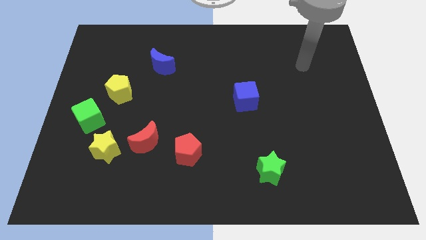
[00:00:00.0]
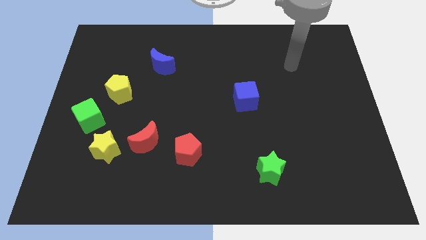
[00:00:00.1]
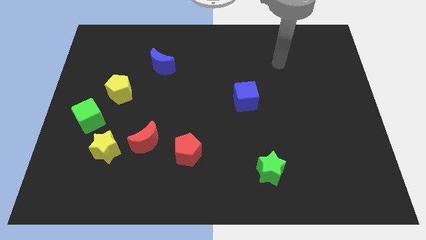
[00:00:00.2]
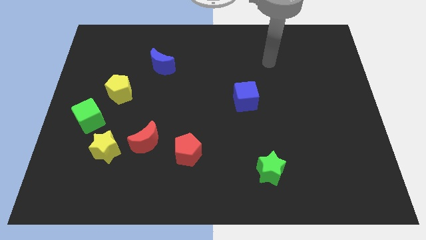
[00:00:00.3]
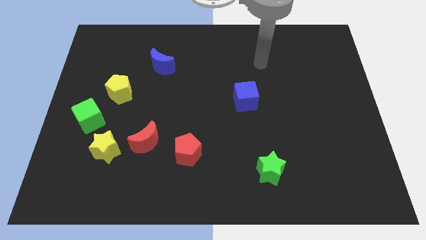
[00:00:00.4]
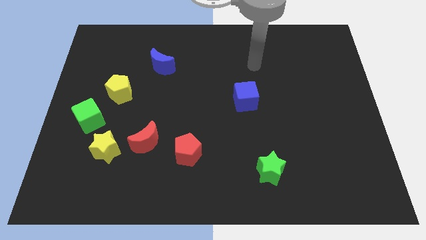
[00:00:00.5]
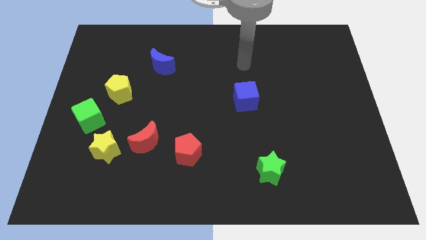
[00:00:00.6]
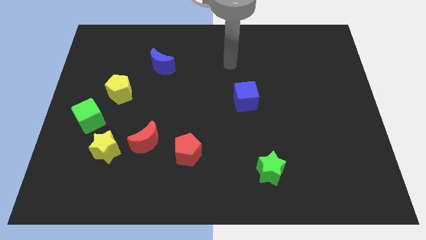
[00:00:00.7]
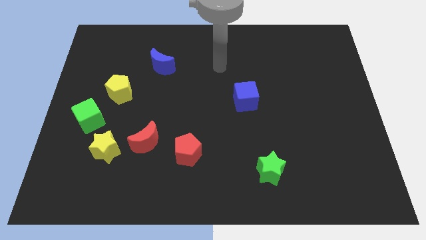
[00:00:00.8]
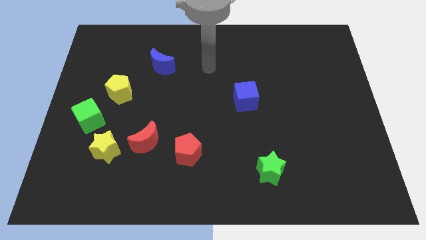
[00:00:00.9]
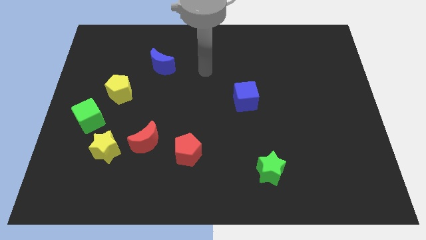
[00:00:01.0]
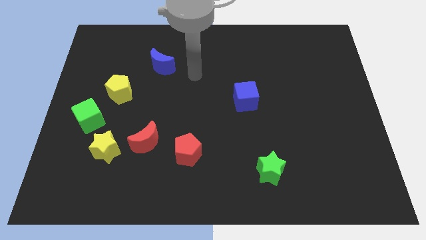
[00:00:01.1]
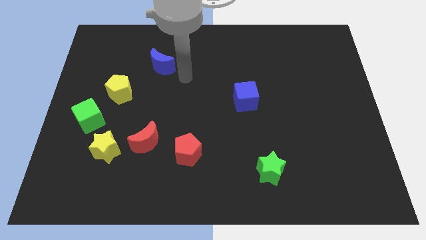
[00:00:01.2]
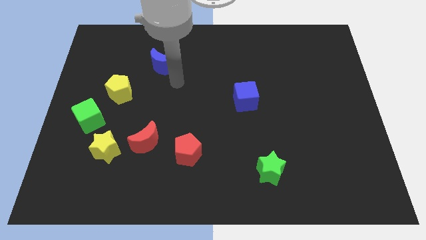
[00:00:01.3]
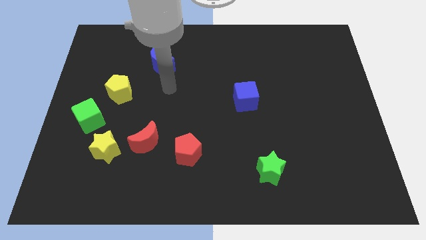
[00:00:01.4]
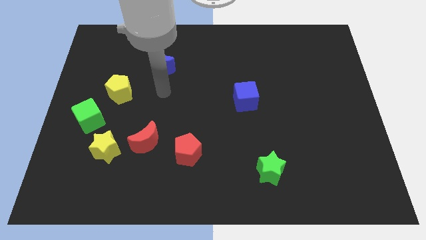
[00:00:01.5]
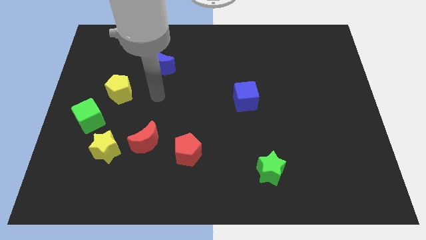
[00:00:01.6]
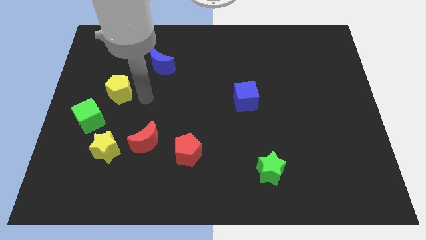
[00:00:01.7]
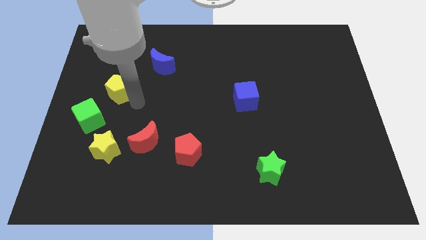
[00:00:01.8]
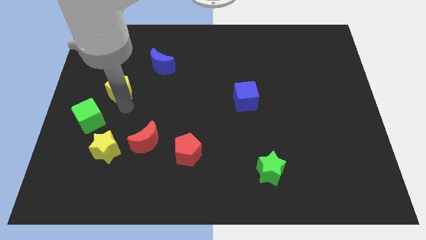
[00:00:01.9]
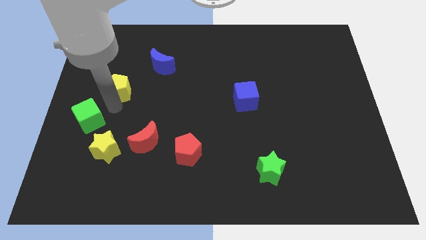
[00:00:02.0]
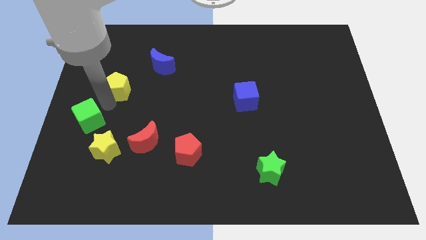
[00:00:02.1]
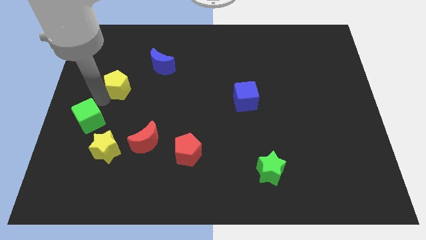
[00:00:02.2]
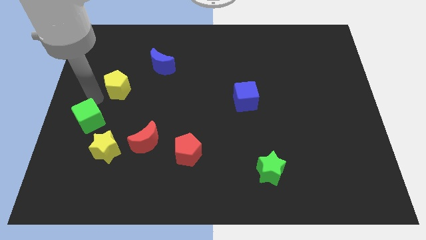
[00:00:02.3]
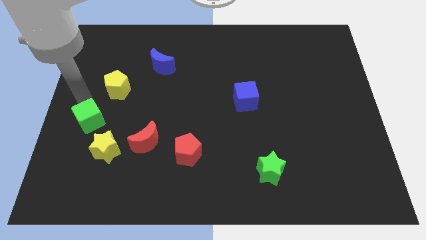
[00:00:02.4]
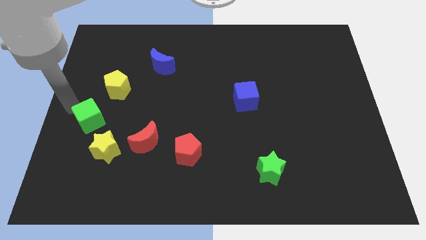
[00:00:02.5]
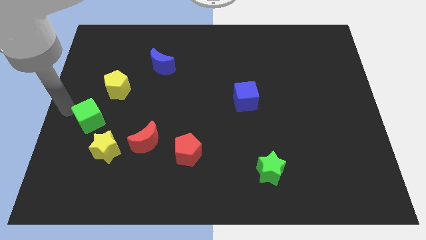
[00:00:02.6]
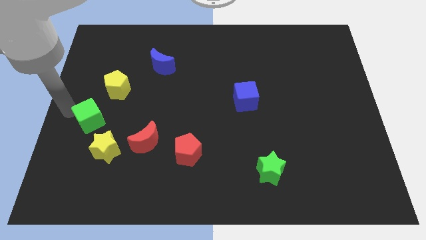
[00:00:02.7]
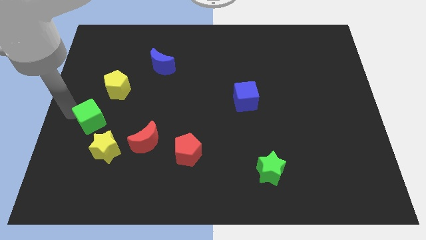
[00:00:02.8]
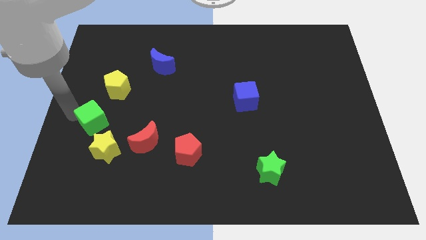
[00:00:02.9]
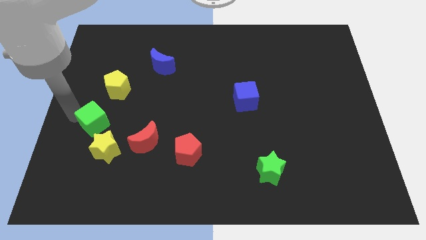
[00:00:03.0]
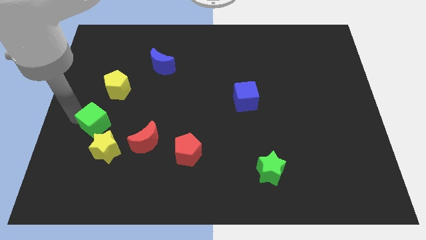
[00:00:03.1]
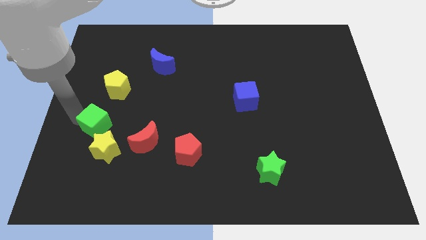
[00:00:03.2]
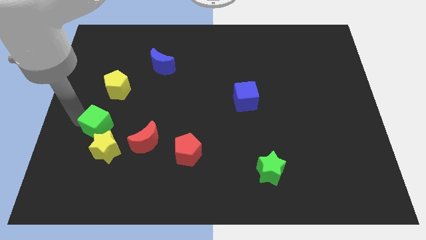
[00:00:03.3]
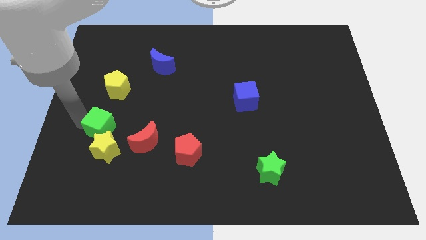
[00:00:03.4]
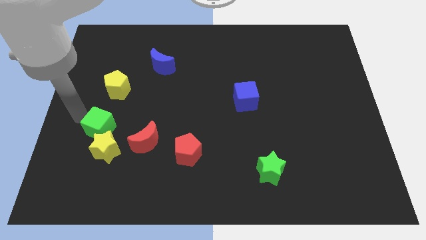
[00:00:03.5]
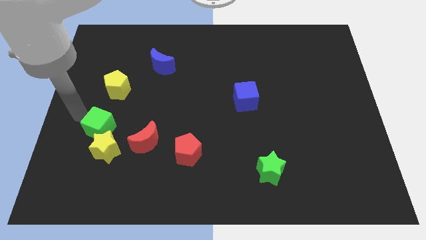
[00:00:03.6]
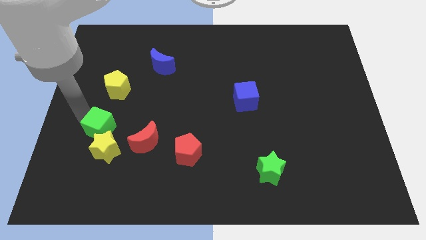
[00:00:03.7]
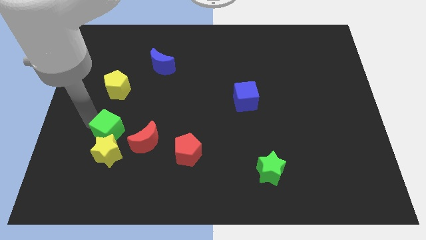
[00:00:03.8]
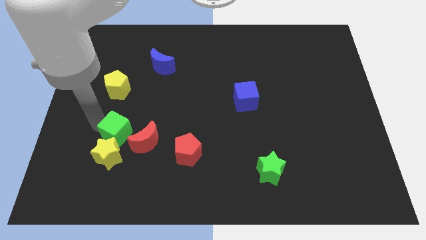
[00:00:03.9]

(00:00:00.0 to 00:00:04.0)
slide the green cube a little bit downwards and to the right diagonally

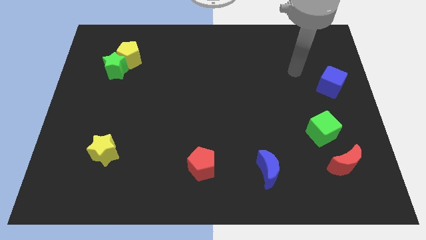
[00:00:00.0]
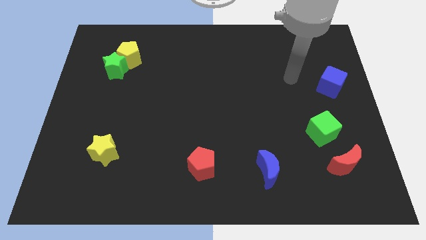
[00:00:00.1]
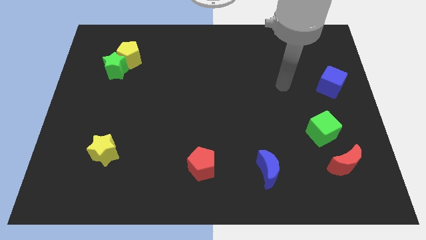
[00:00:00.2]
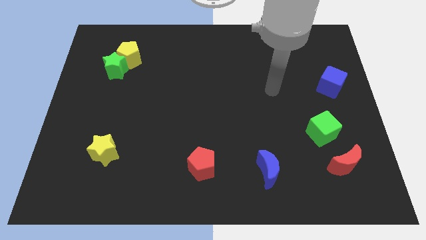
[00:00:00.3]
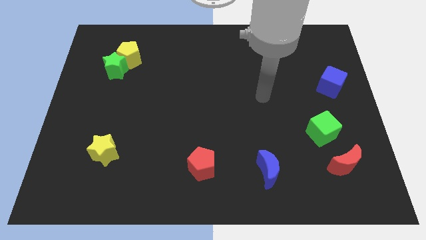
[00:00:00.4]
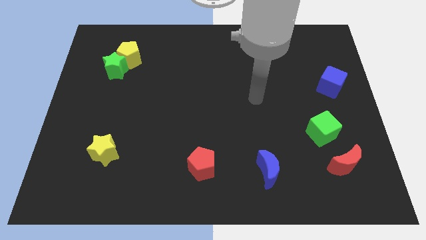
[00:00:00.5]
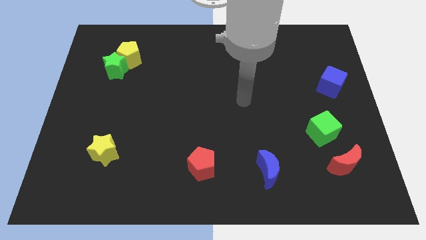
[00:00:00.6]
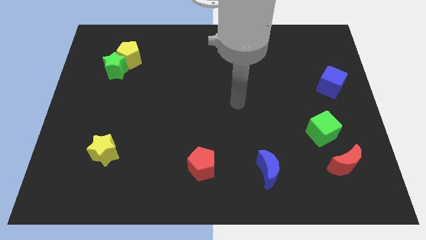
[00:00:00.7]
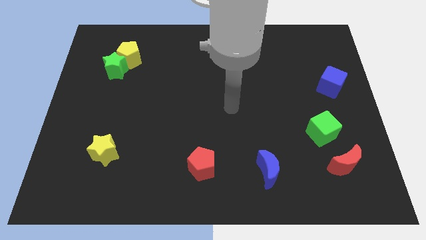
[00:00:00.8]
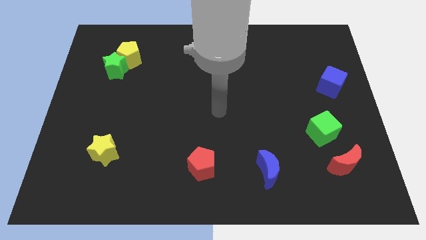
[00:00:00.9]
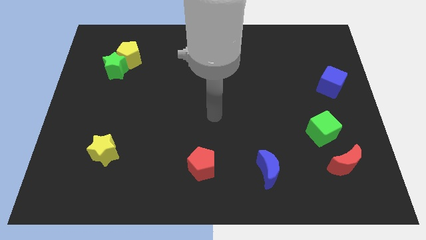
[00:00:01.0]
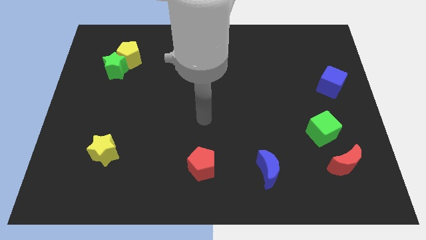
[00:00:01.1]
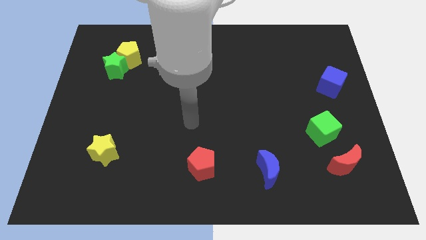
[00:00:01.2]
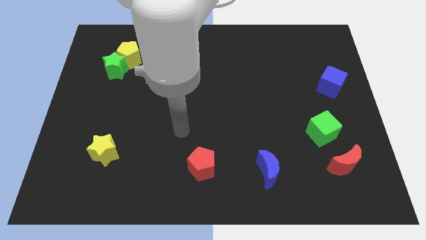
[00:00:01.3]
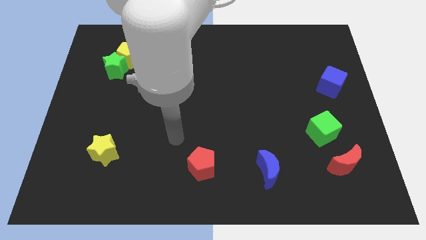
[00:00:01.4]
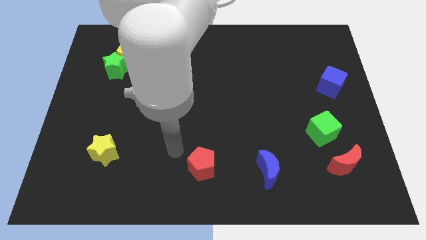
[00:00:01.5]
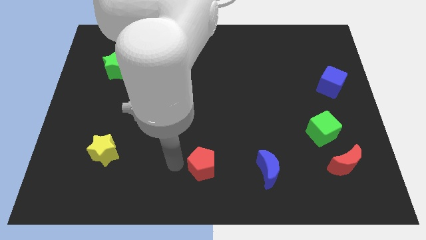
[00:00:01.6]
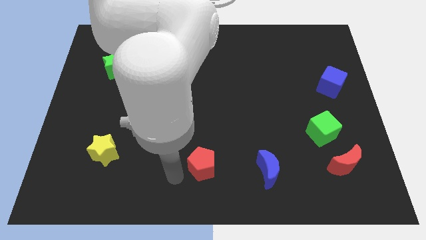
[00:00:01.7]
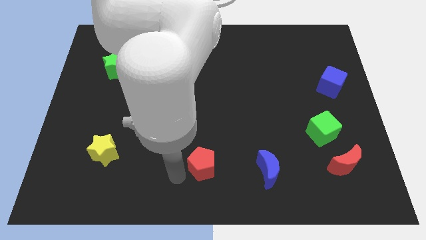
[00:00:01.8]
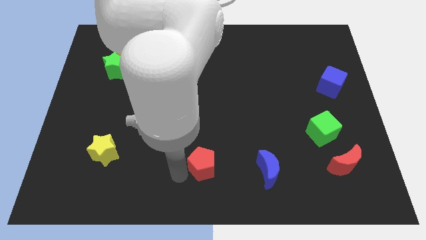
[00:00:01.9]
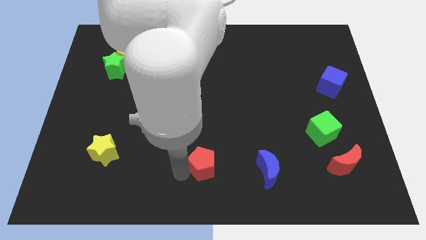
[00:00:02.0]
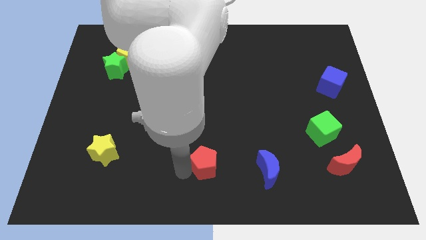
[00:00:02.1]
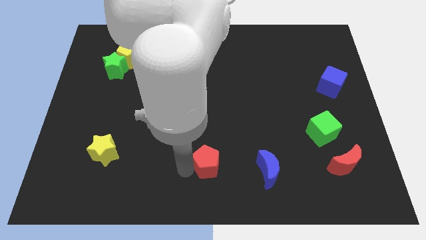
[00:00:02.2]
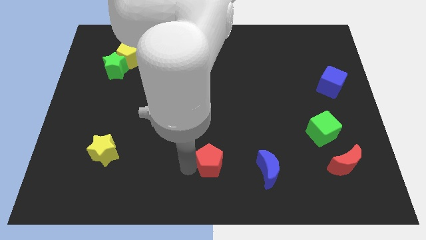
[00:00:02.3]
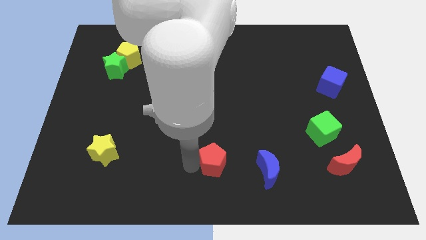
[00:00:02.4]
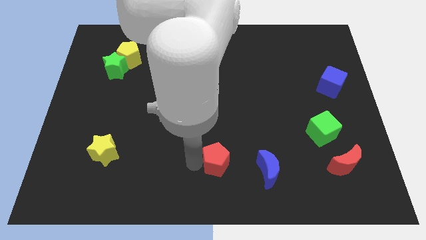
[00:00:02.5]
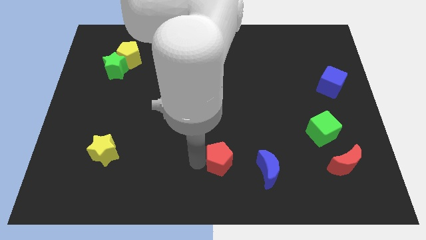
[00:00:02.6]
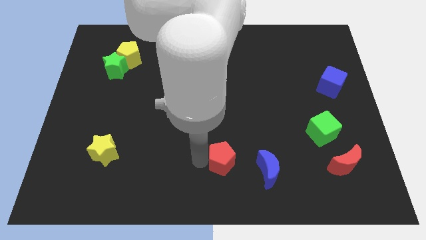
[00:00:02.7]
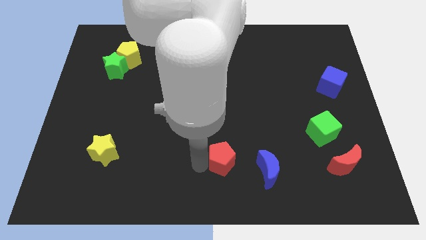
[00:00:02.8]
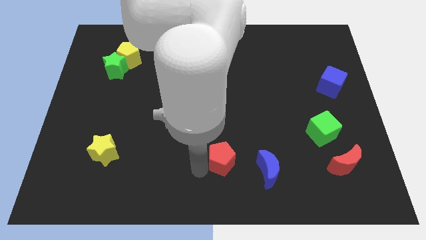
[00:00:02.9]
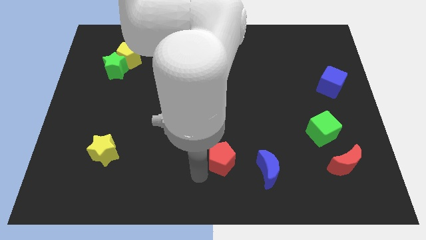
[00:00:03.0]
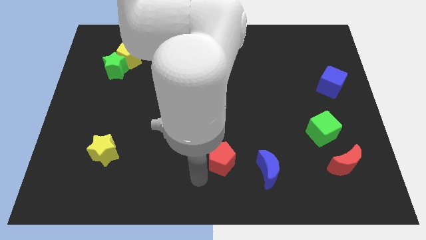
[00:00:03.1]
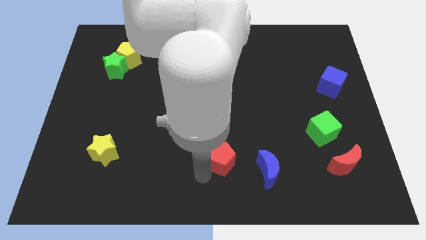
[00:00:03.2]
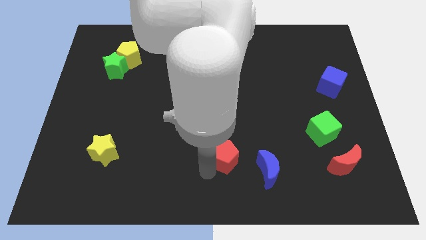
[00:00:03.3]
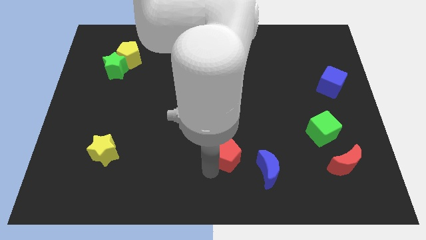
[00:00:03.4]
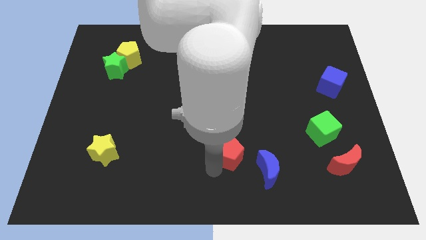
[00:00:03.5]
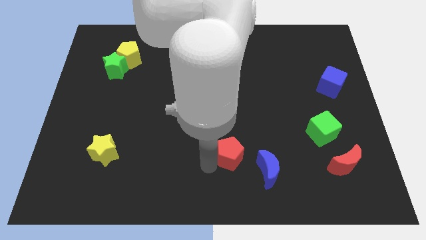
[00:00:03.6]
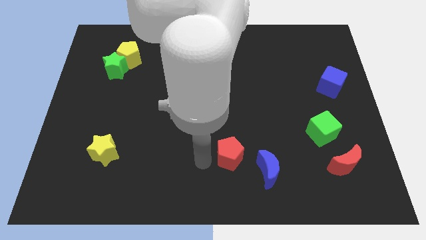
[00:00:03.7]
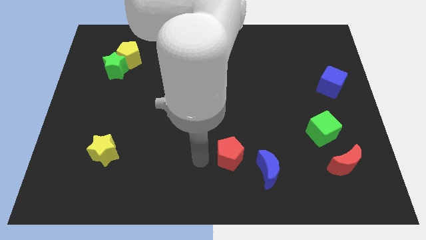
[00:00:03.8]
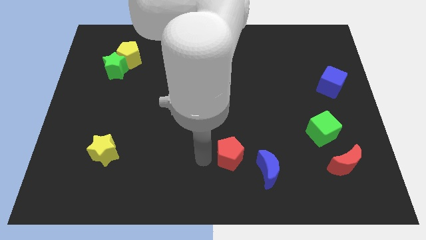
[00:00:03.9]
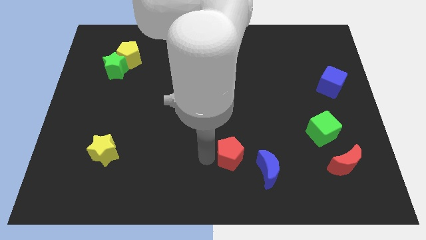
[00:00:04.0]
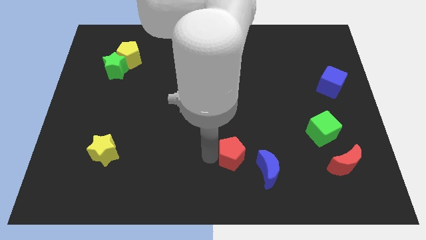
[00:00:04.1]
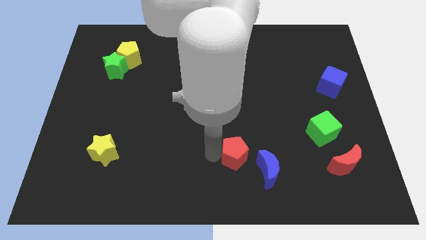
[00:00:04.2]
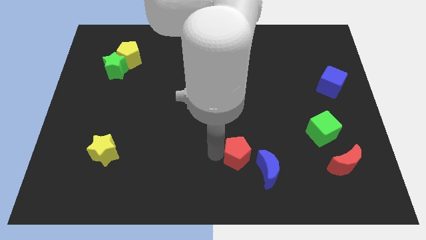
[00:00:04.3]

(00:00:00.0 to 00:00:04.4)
slightly push the red pentagon right
